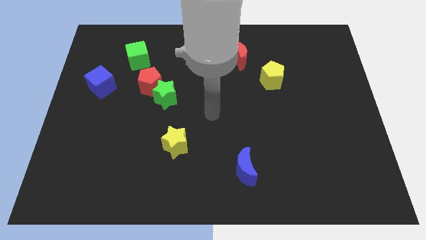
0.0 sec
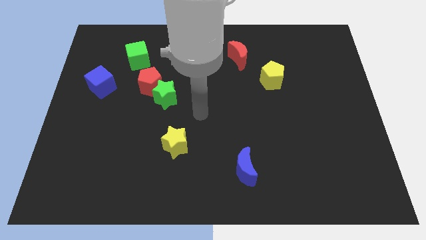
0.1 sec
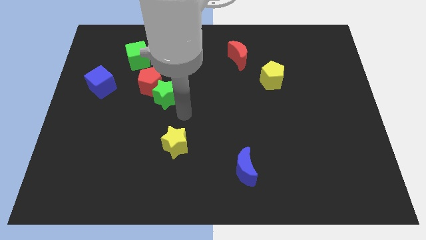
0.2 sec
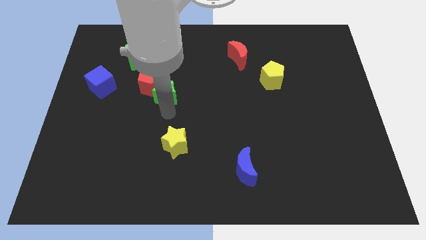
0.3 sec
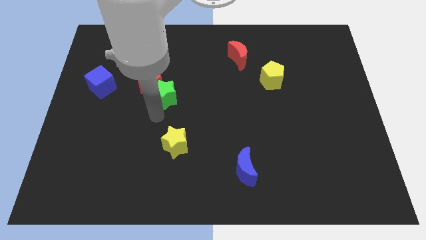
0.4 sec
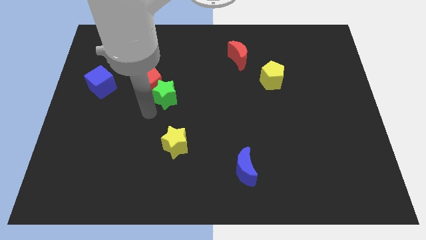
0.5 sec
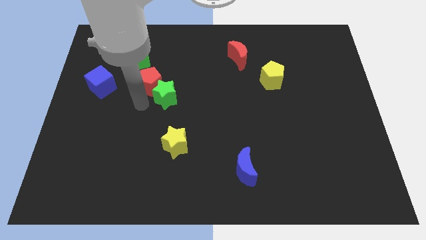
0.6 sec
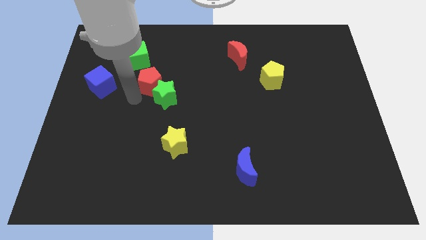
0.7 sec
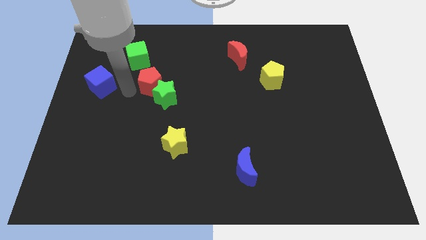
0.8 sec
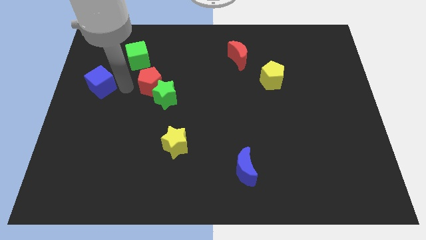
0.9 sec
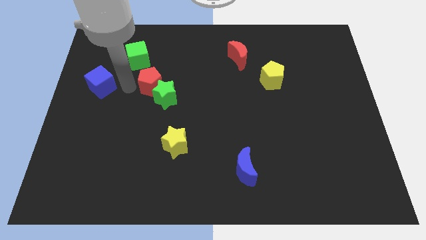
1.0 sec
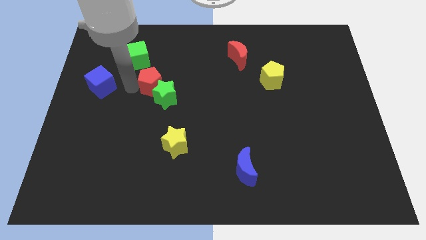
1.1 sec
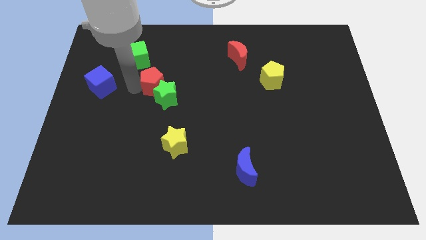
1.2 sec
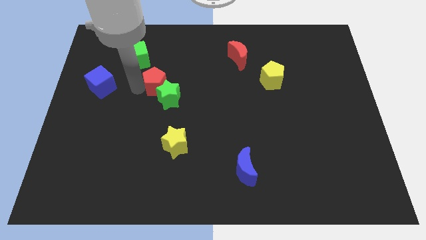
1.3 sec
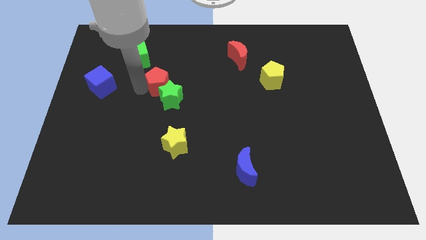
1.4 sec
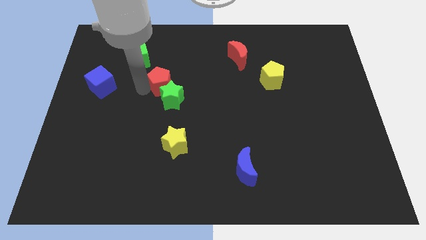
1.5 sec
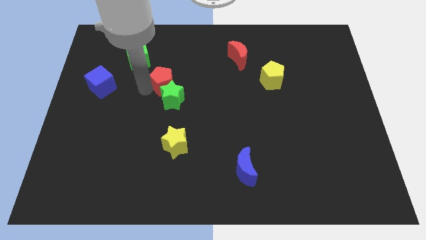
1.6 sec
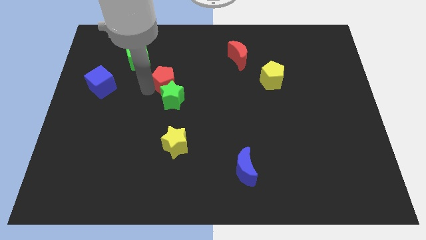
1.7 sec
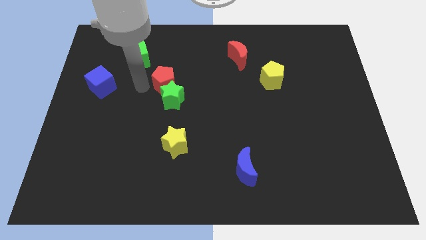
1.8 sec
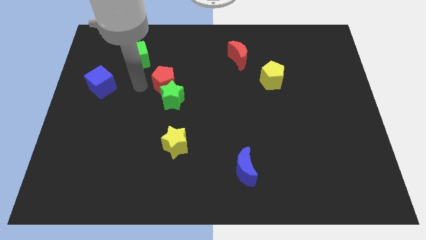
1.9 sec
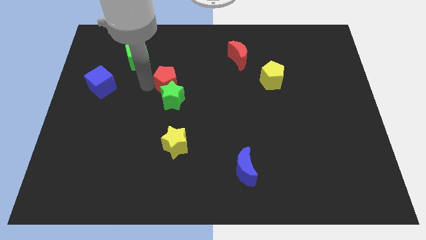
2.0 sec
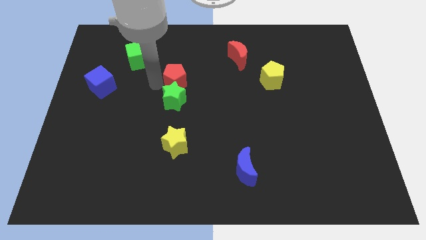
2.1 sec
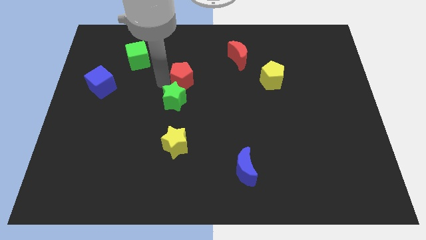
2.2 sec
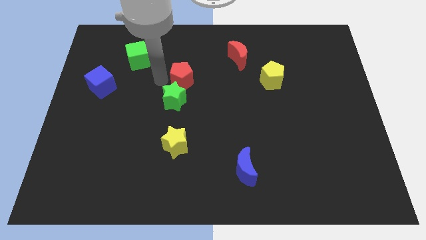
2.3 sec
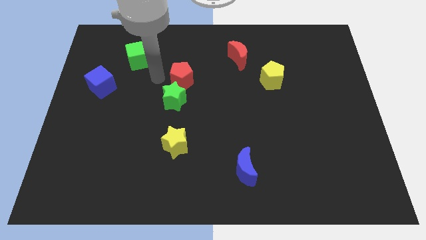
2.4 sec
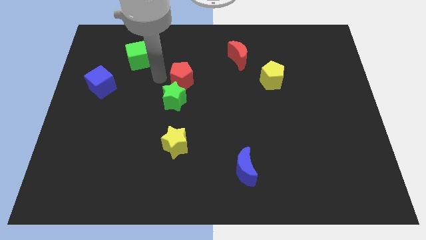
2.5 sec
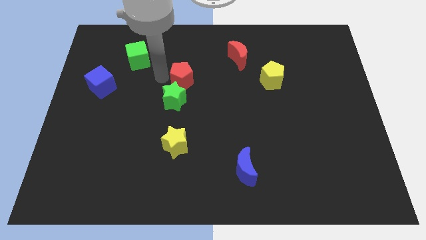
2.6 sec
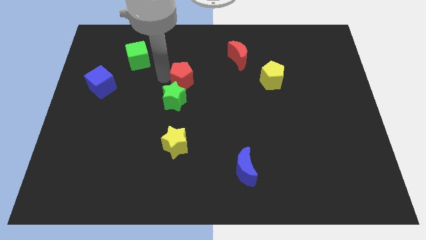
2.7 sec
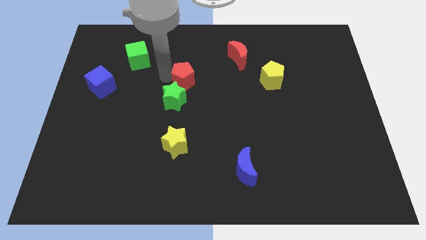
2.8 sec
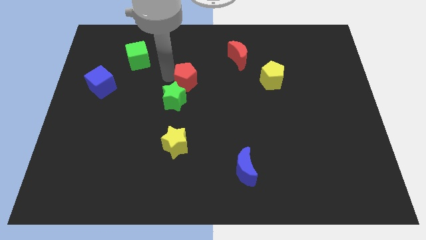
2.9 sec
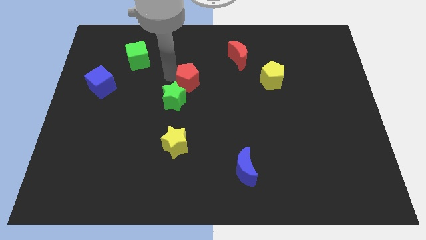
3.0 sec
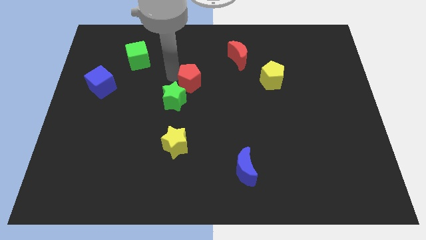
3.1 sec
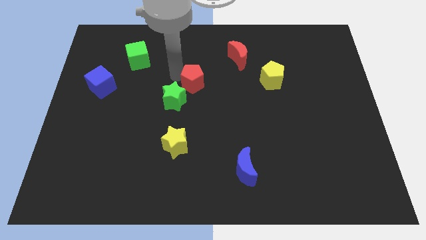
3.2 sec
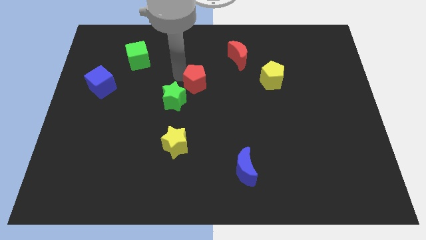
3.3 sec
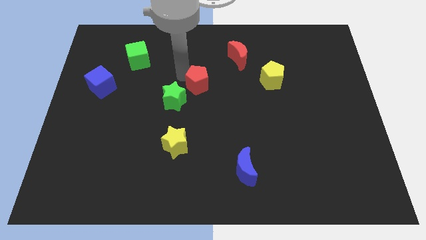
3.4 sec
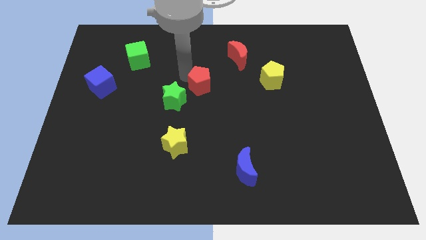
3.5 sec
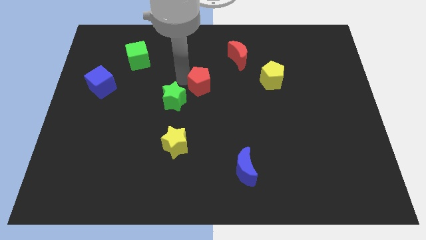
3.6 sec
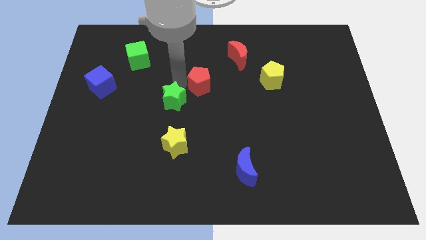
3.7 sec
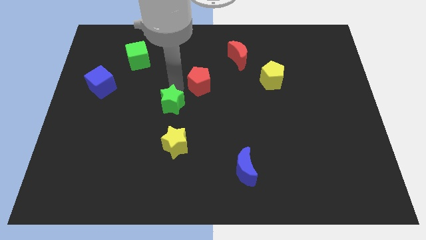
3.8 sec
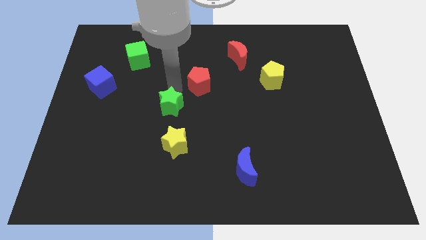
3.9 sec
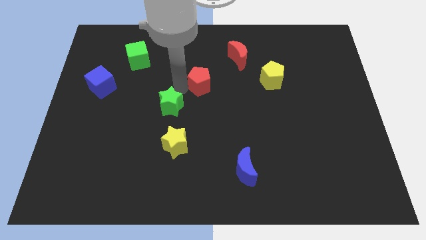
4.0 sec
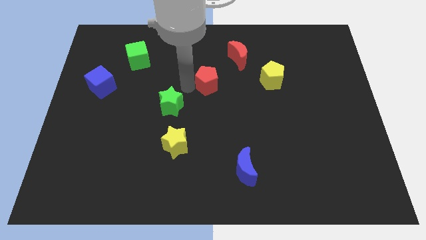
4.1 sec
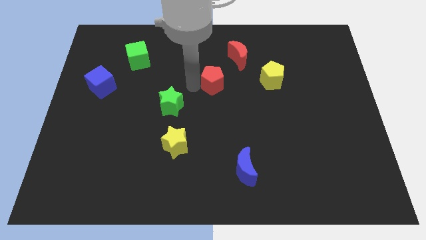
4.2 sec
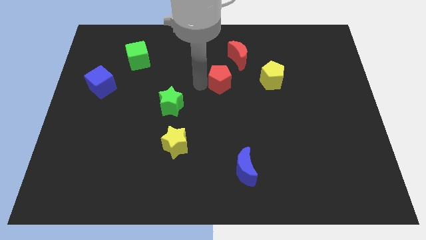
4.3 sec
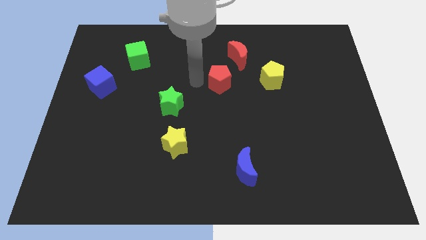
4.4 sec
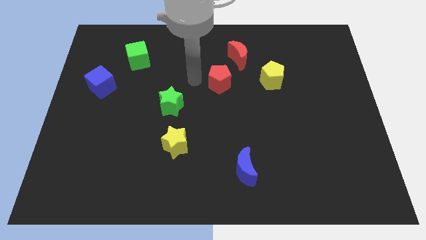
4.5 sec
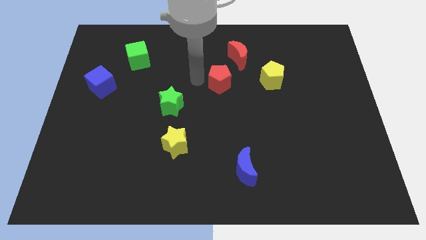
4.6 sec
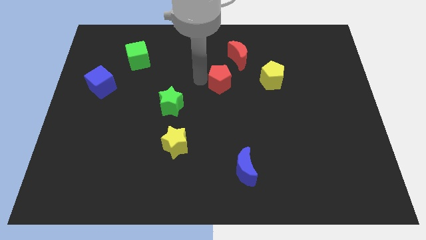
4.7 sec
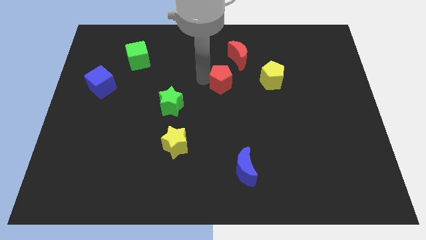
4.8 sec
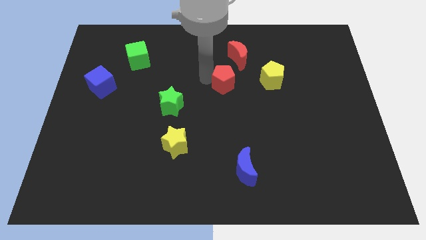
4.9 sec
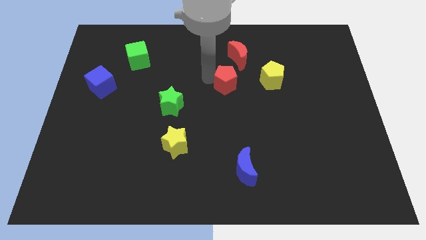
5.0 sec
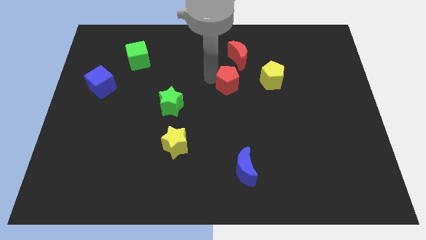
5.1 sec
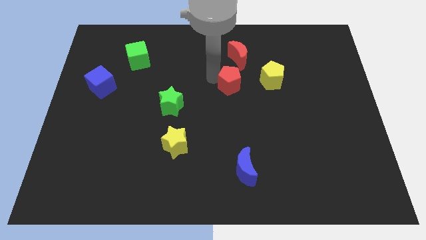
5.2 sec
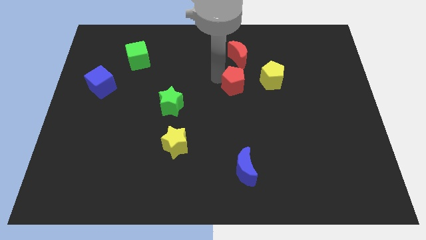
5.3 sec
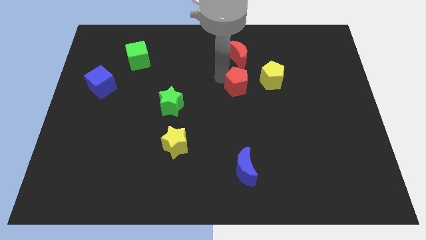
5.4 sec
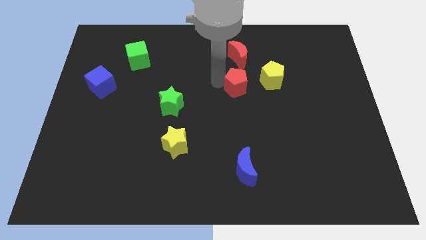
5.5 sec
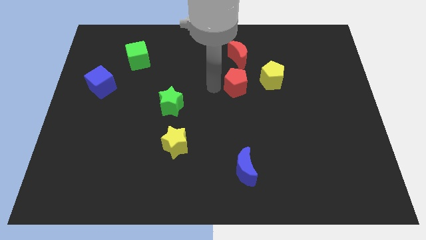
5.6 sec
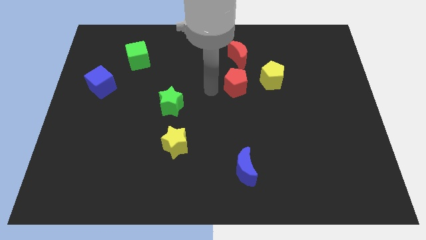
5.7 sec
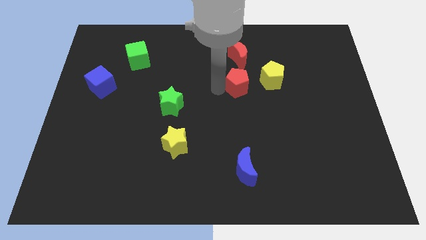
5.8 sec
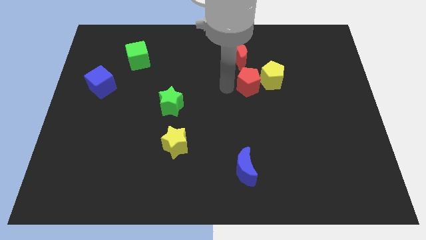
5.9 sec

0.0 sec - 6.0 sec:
move the red pentagon towards the yellow pentagon

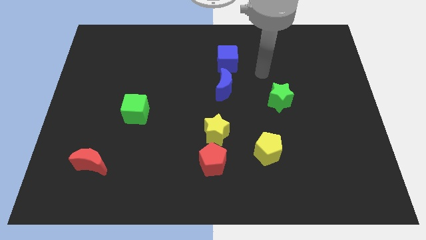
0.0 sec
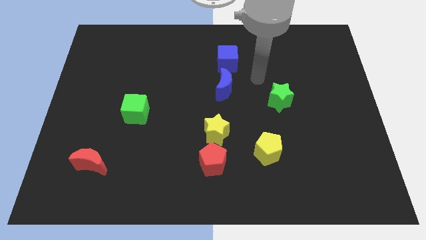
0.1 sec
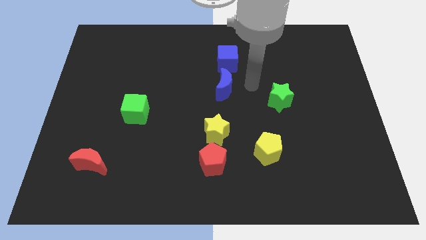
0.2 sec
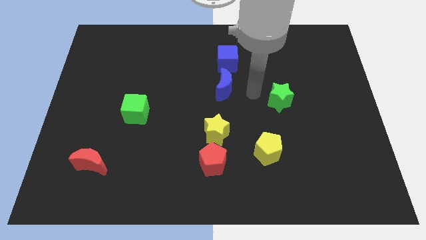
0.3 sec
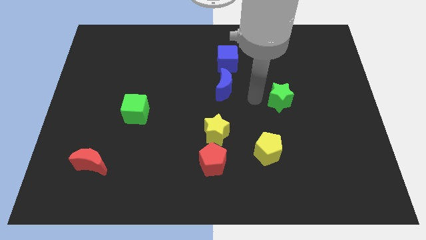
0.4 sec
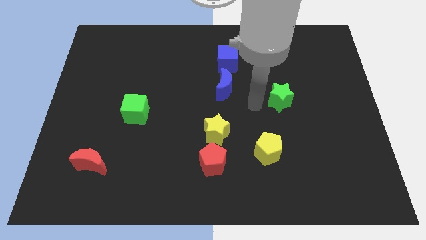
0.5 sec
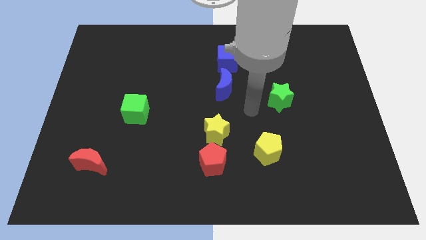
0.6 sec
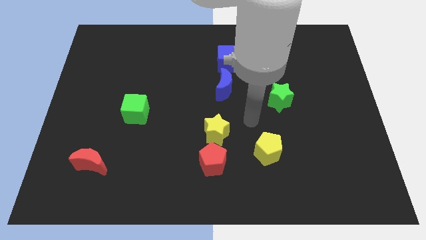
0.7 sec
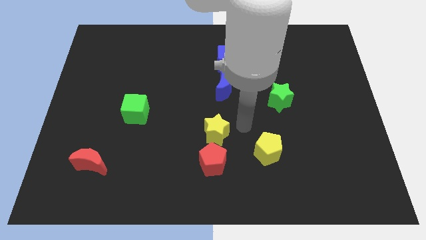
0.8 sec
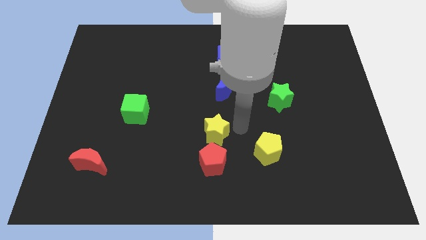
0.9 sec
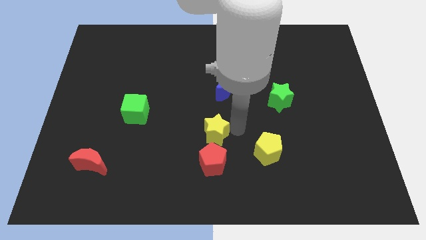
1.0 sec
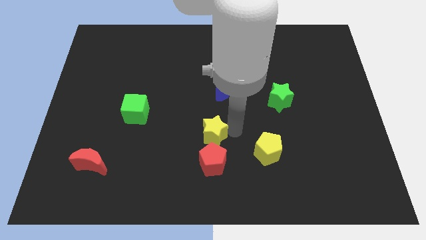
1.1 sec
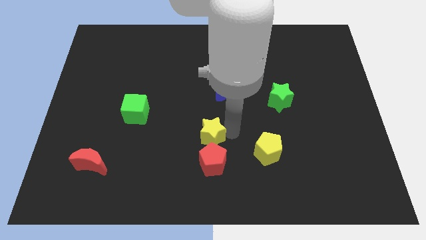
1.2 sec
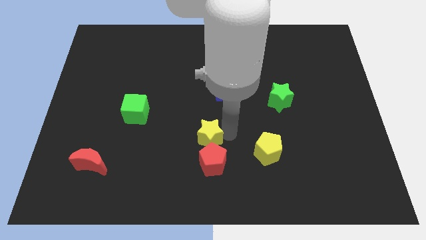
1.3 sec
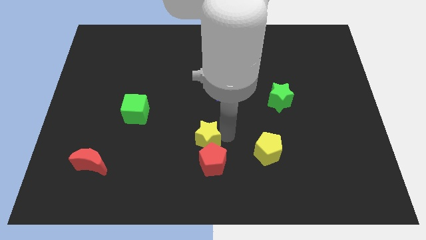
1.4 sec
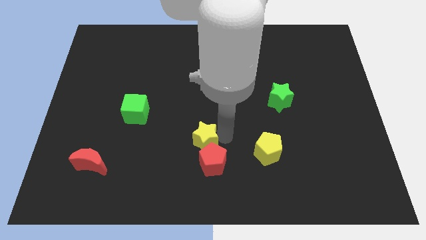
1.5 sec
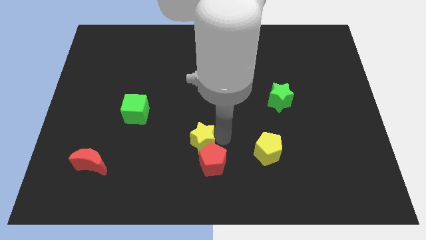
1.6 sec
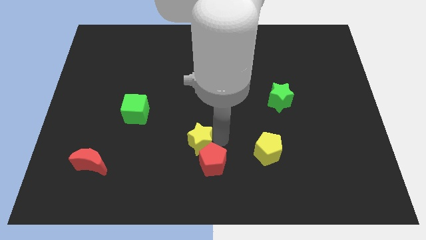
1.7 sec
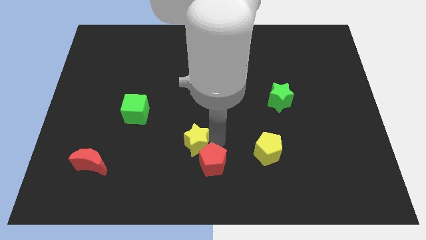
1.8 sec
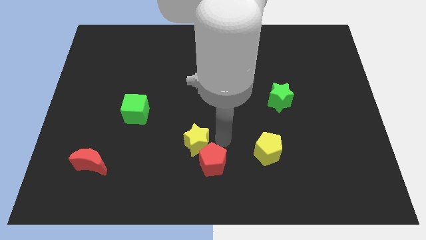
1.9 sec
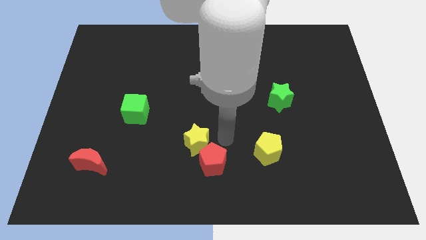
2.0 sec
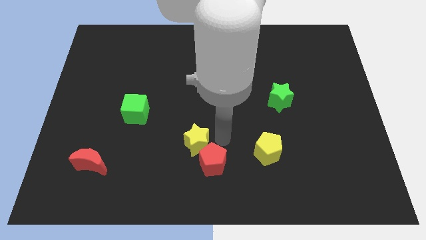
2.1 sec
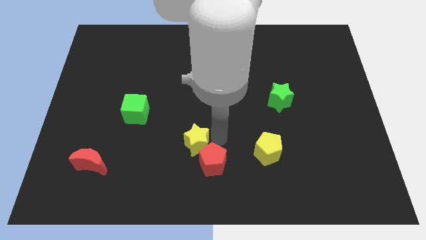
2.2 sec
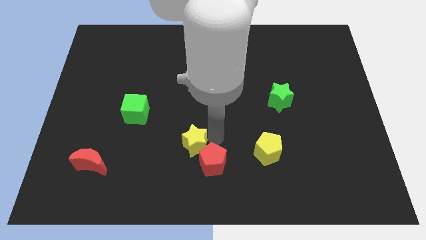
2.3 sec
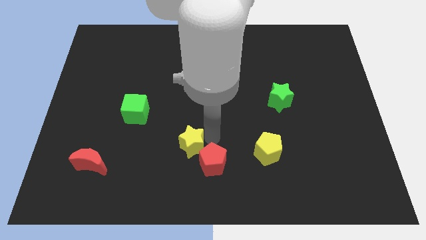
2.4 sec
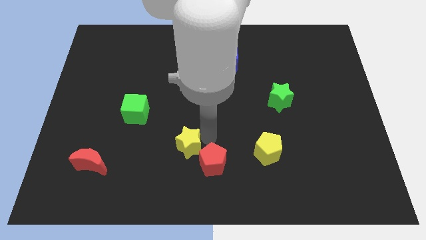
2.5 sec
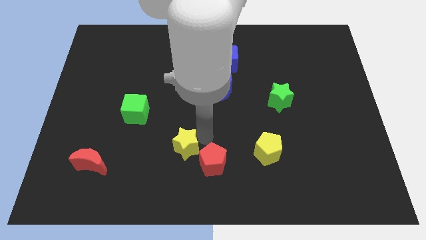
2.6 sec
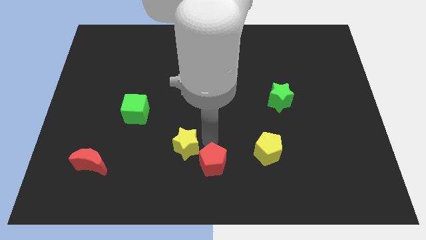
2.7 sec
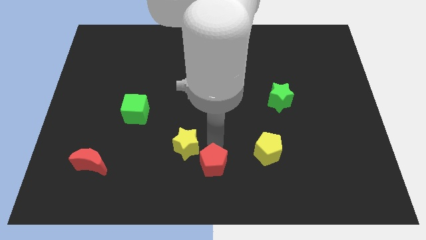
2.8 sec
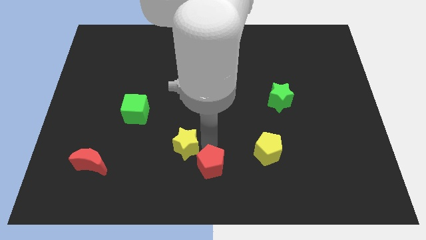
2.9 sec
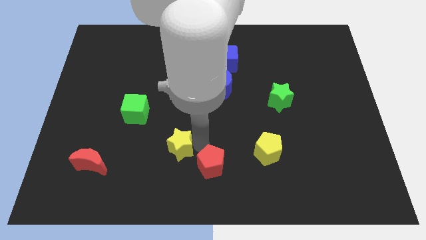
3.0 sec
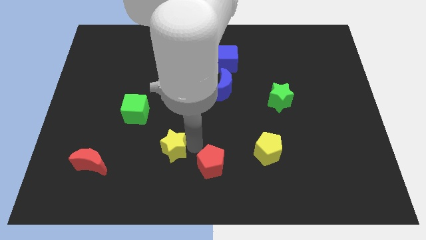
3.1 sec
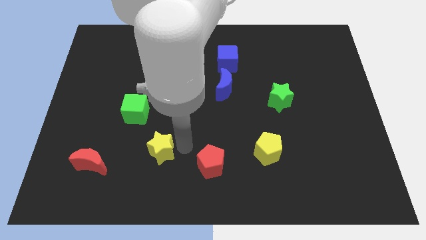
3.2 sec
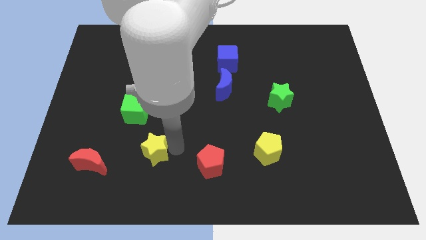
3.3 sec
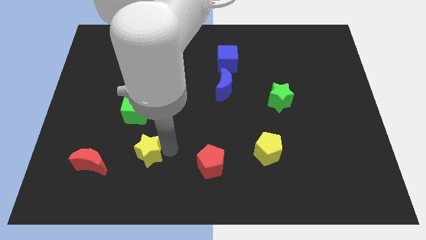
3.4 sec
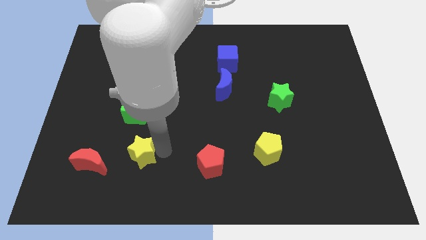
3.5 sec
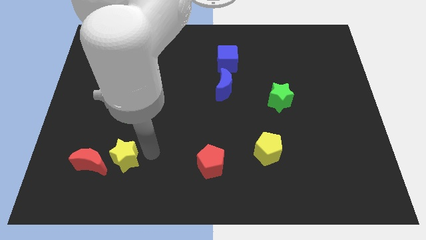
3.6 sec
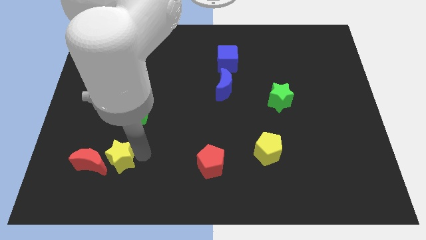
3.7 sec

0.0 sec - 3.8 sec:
put the yellow star towards the red moon
